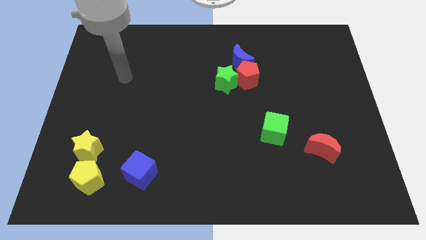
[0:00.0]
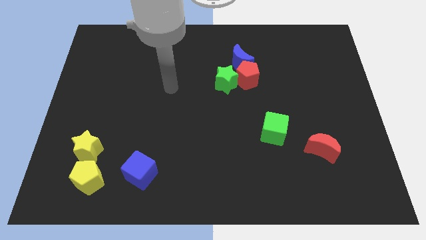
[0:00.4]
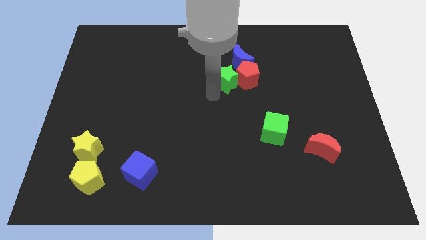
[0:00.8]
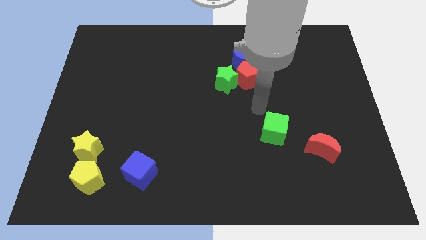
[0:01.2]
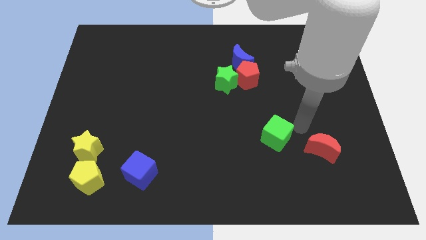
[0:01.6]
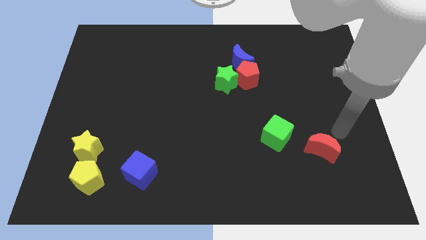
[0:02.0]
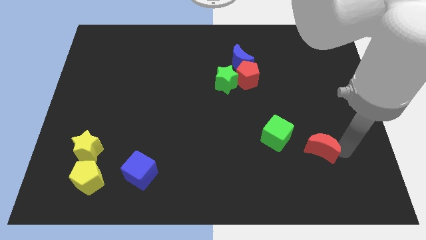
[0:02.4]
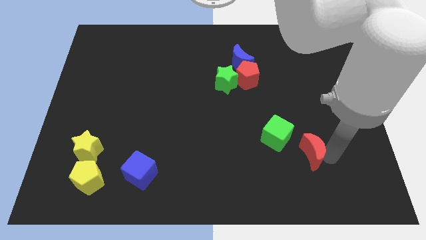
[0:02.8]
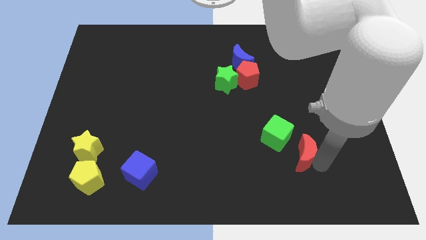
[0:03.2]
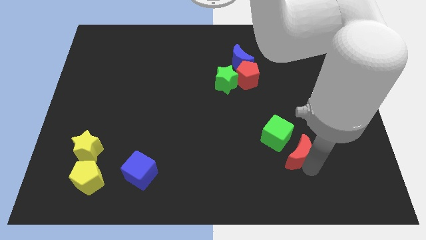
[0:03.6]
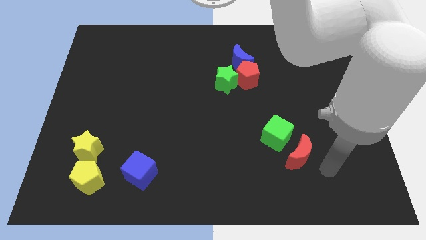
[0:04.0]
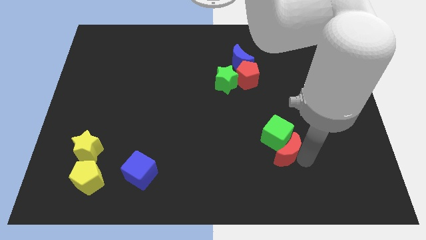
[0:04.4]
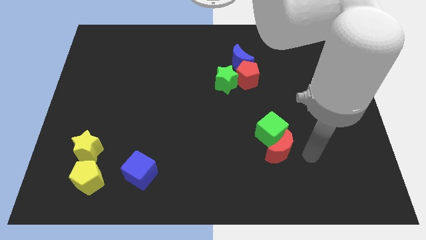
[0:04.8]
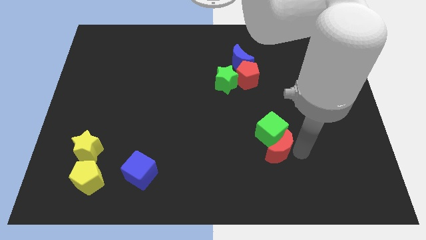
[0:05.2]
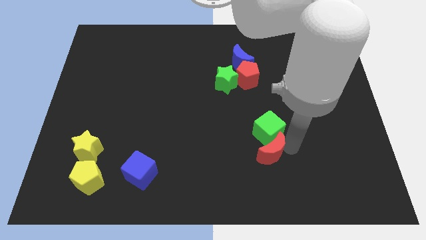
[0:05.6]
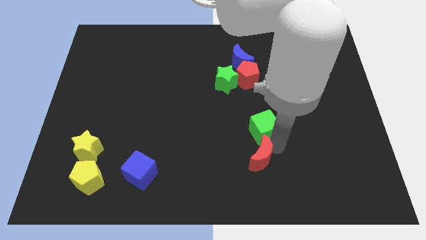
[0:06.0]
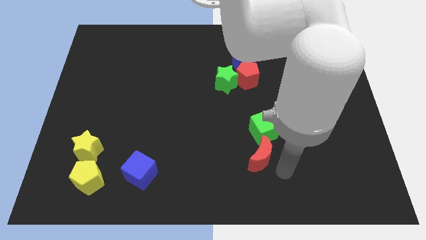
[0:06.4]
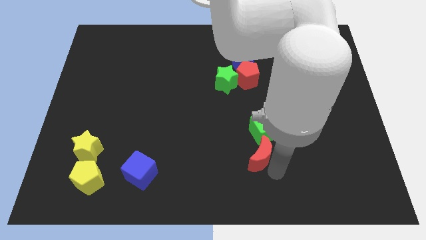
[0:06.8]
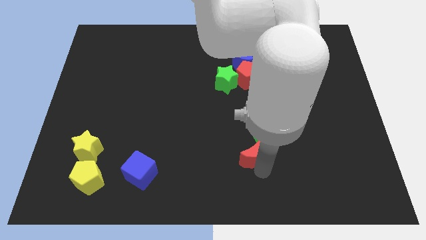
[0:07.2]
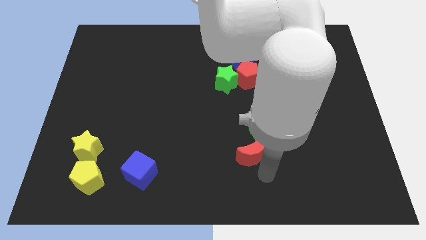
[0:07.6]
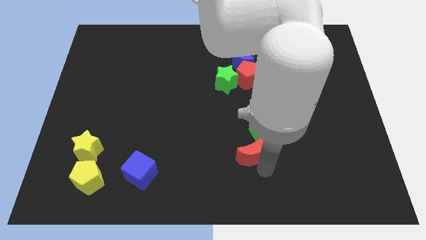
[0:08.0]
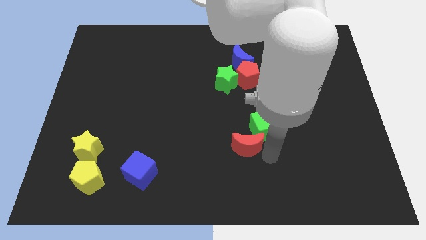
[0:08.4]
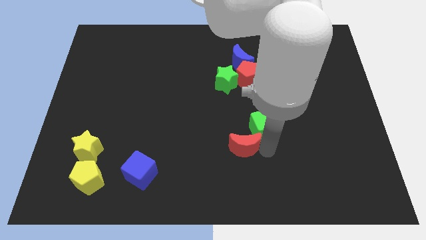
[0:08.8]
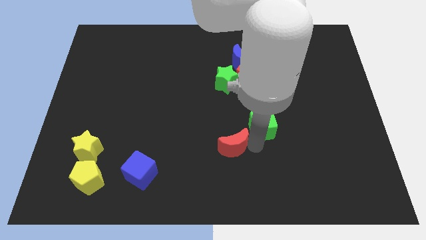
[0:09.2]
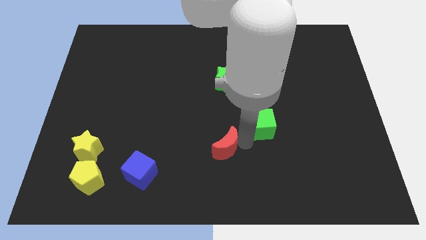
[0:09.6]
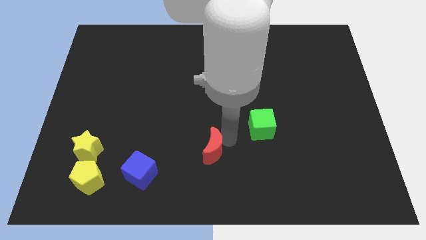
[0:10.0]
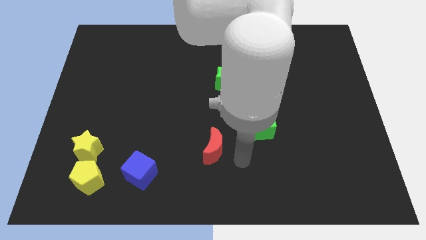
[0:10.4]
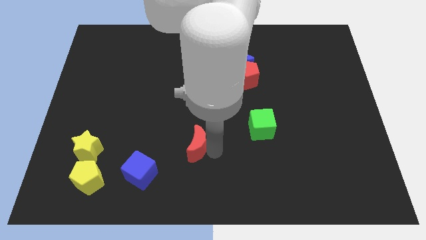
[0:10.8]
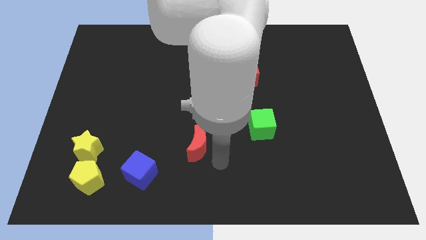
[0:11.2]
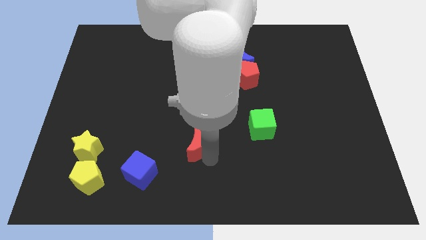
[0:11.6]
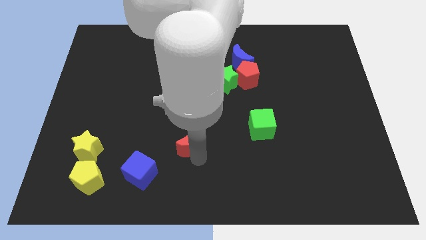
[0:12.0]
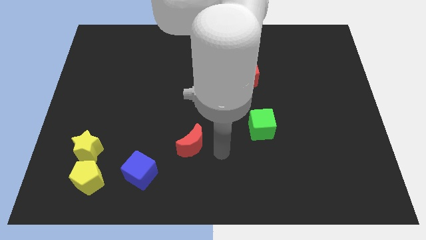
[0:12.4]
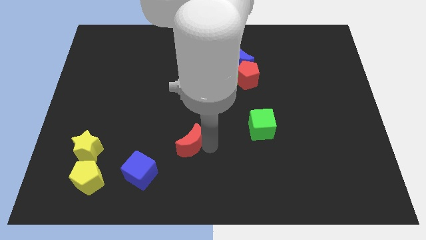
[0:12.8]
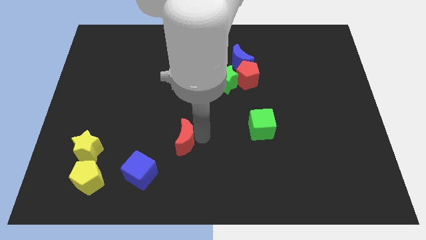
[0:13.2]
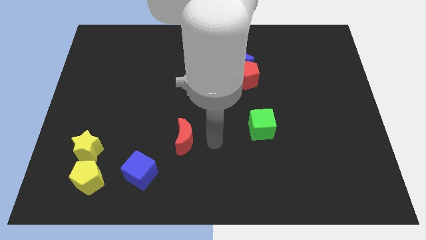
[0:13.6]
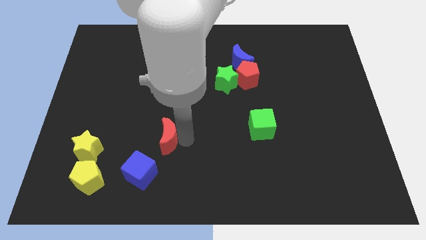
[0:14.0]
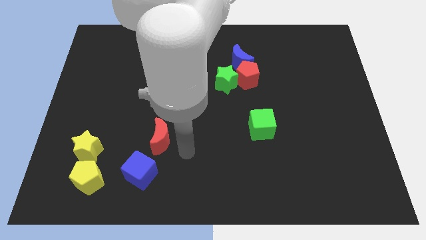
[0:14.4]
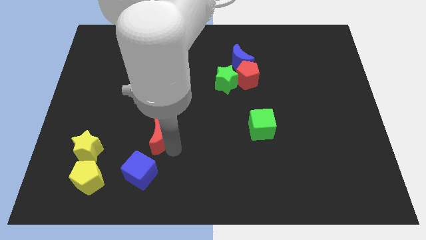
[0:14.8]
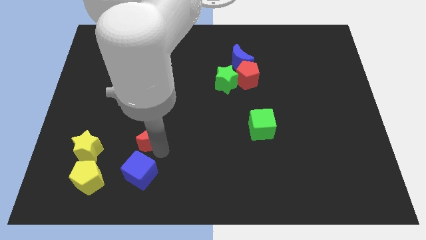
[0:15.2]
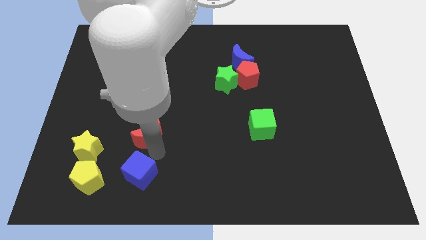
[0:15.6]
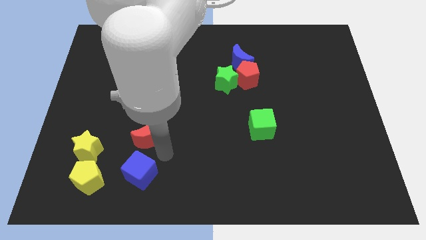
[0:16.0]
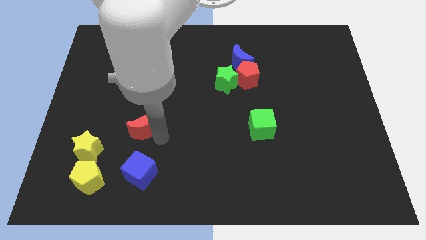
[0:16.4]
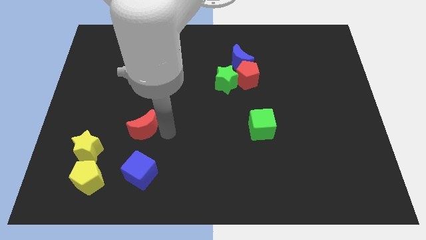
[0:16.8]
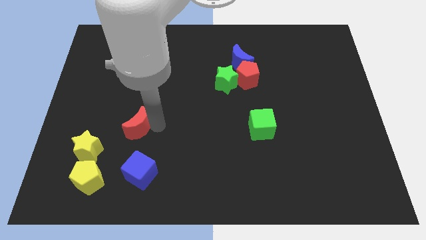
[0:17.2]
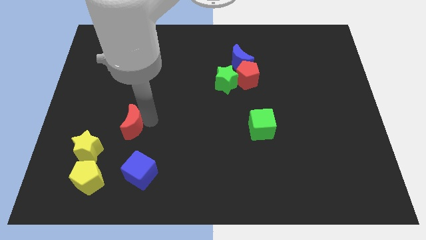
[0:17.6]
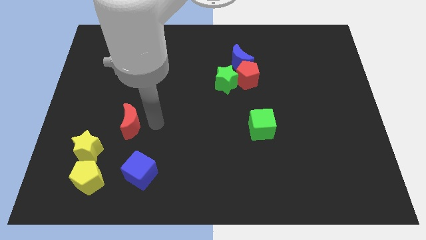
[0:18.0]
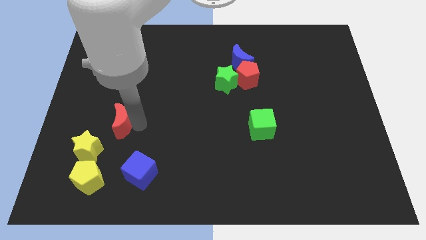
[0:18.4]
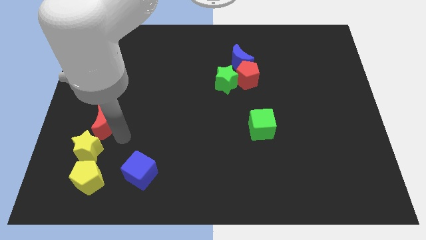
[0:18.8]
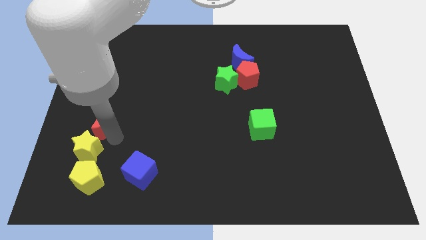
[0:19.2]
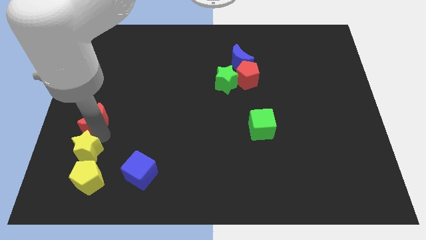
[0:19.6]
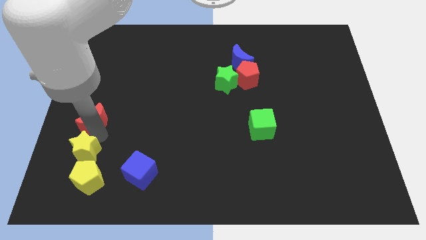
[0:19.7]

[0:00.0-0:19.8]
slide the red moon to the left side of the board

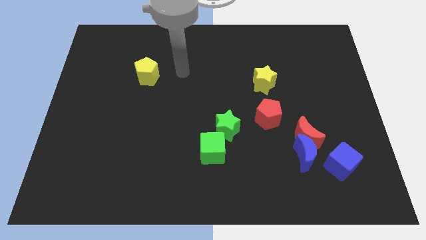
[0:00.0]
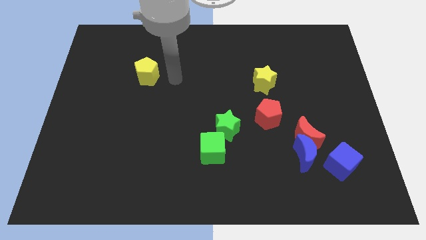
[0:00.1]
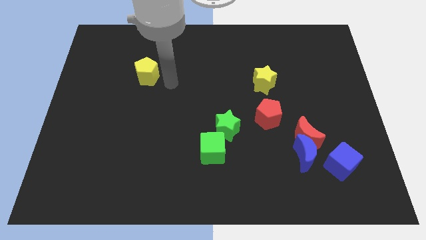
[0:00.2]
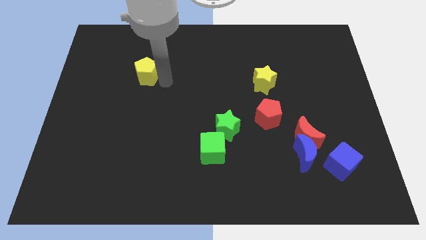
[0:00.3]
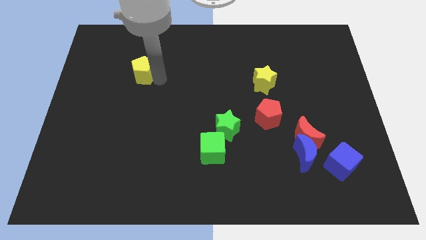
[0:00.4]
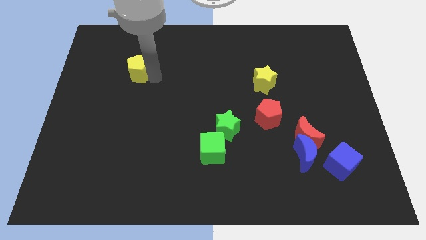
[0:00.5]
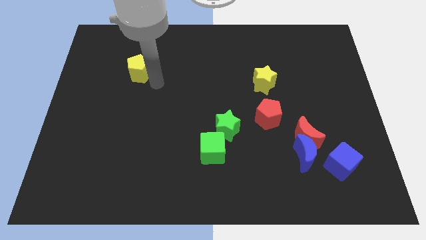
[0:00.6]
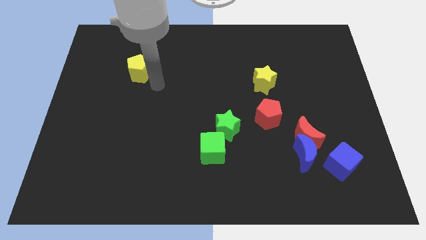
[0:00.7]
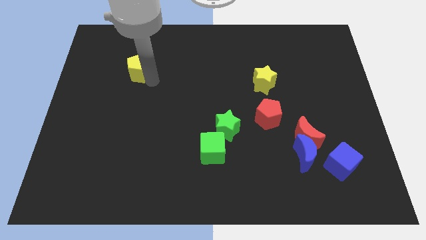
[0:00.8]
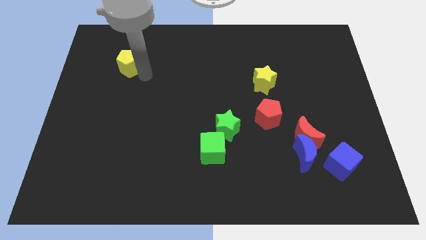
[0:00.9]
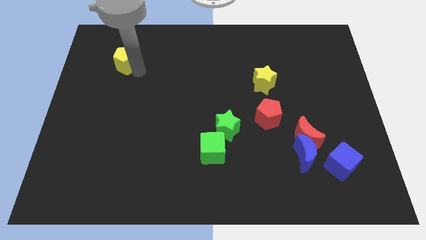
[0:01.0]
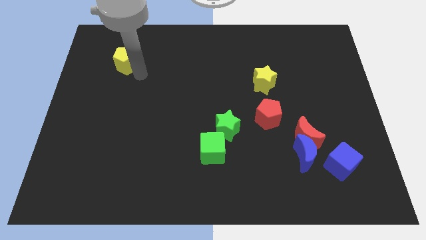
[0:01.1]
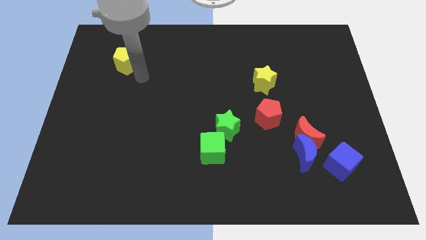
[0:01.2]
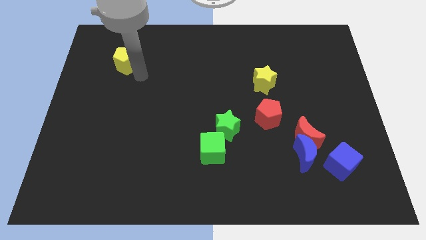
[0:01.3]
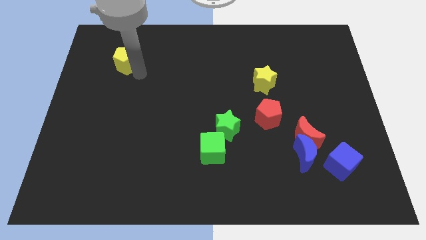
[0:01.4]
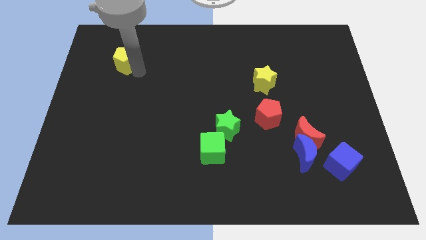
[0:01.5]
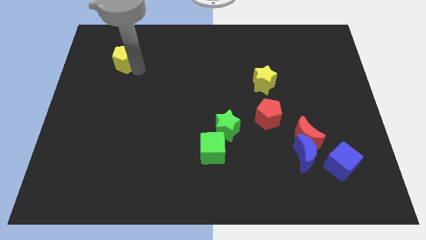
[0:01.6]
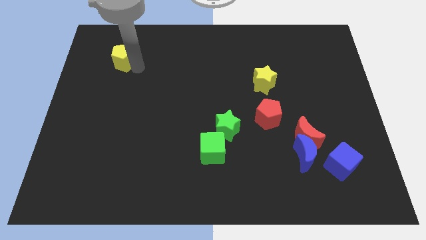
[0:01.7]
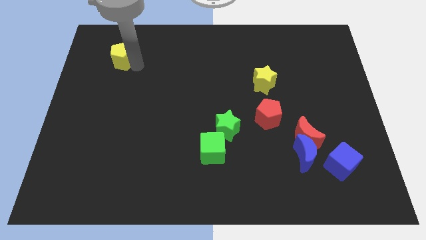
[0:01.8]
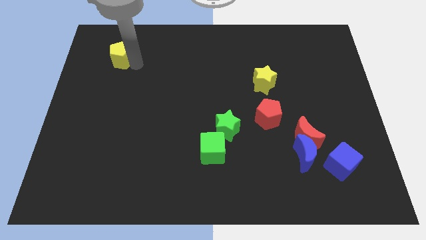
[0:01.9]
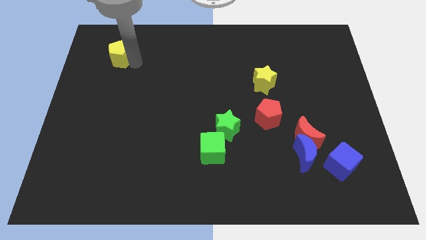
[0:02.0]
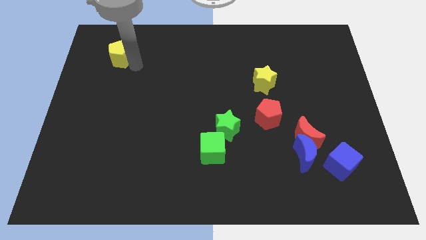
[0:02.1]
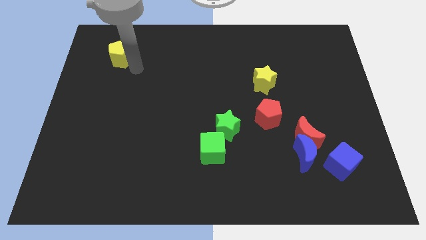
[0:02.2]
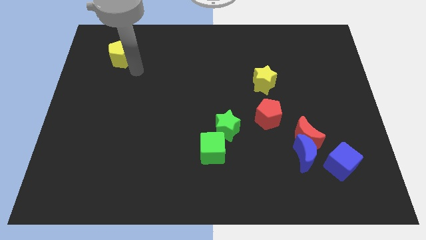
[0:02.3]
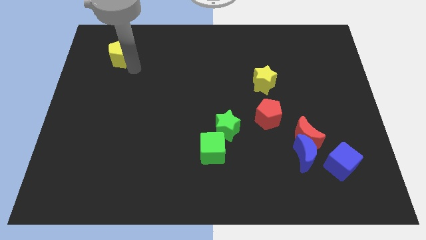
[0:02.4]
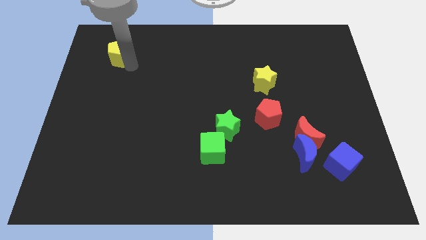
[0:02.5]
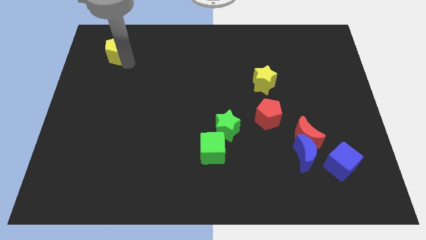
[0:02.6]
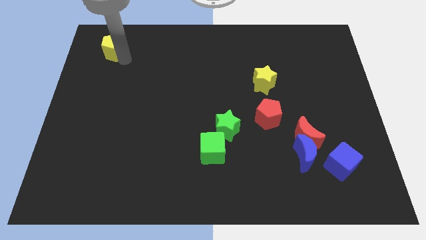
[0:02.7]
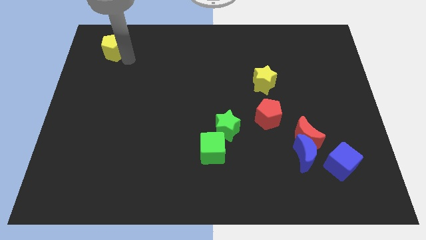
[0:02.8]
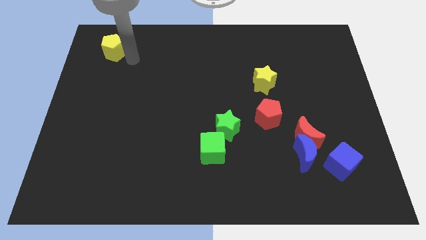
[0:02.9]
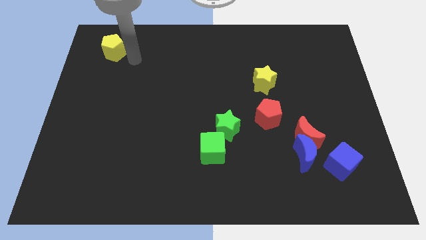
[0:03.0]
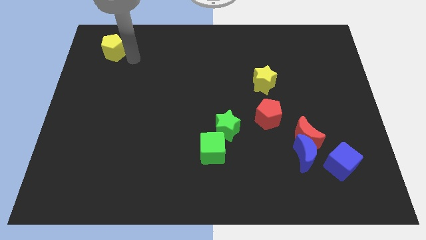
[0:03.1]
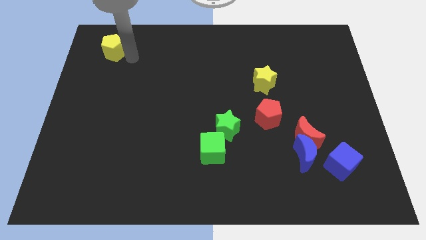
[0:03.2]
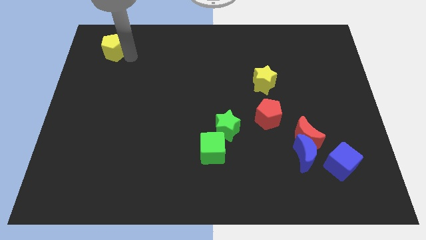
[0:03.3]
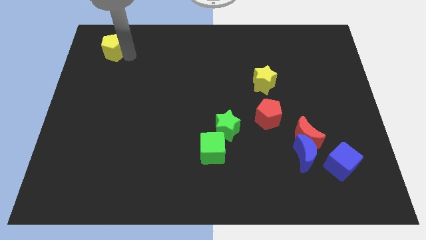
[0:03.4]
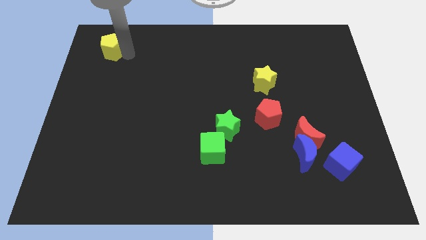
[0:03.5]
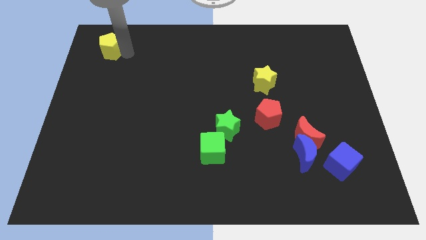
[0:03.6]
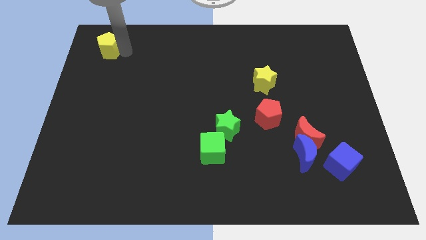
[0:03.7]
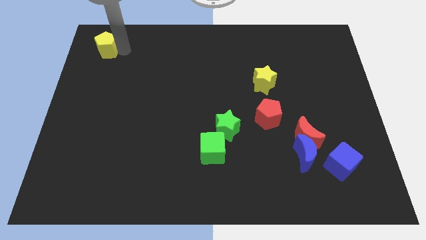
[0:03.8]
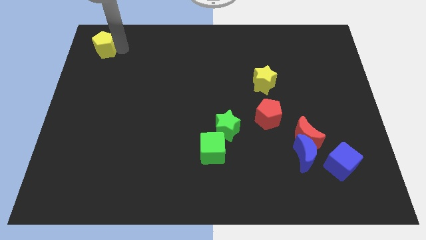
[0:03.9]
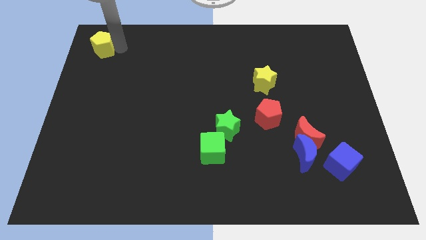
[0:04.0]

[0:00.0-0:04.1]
move the yellow pentagon to the top left
